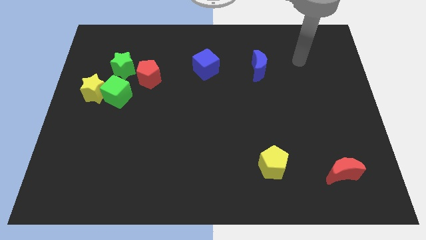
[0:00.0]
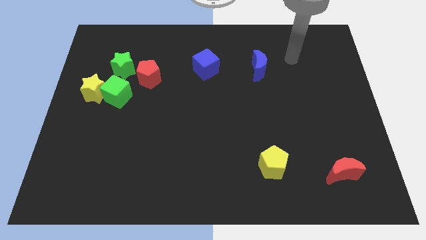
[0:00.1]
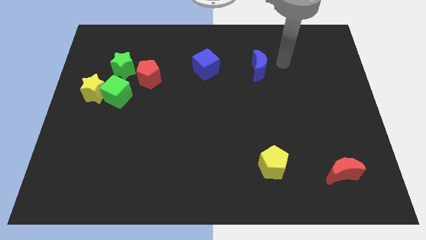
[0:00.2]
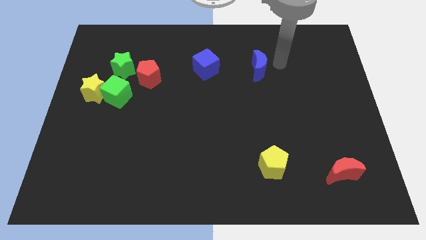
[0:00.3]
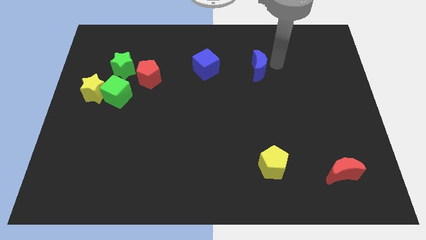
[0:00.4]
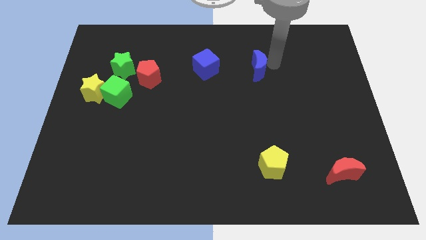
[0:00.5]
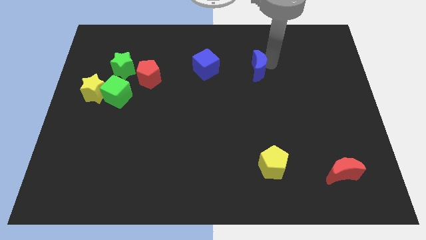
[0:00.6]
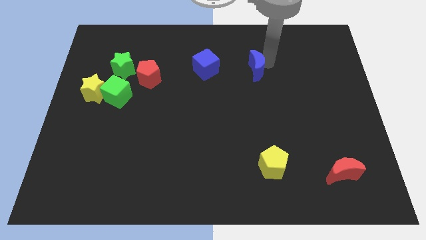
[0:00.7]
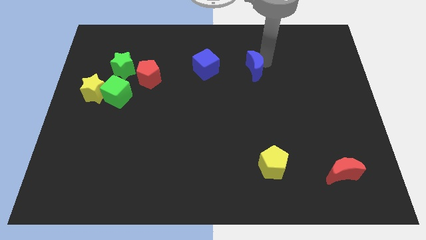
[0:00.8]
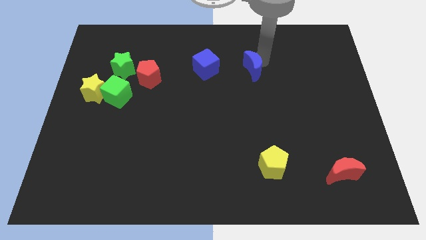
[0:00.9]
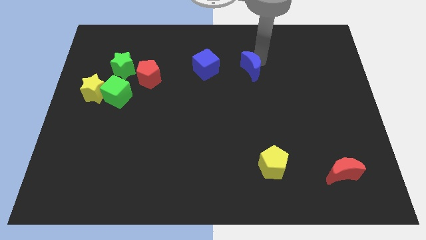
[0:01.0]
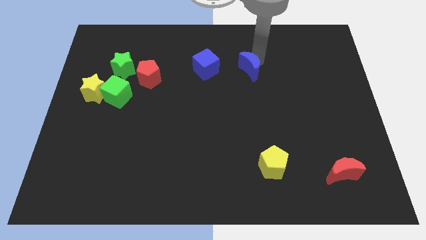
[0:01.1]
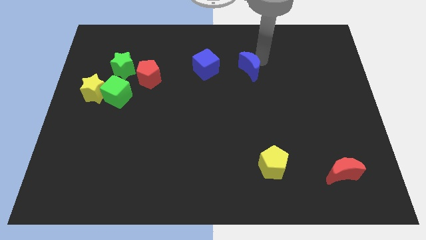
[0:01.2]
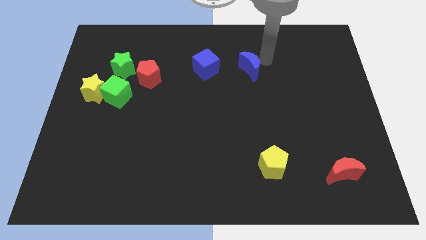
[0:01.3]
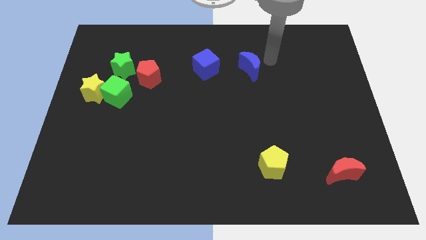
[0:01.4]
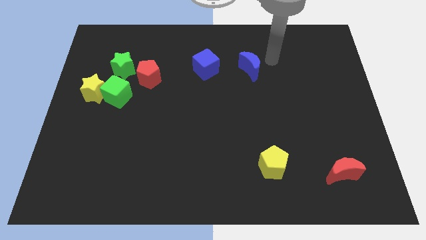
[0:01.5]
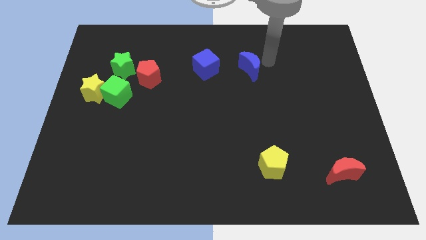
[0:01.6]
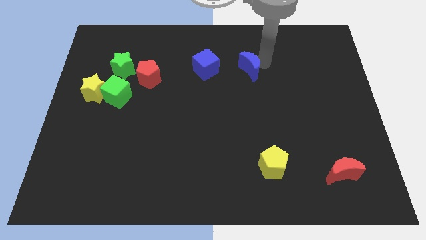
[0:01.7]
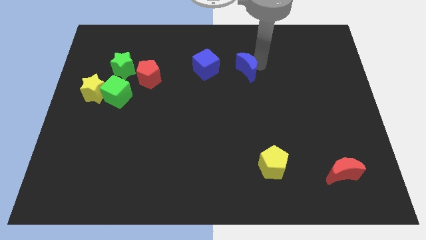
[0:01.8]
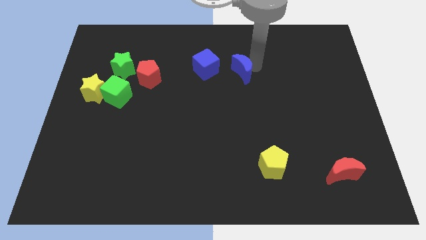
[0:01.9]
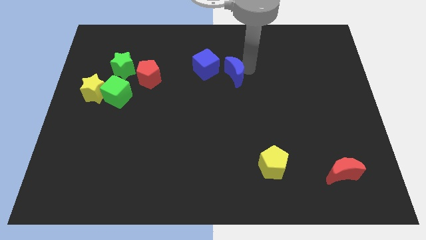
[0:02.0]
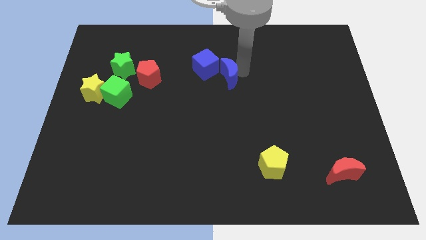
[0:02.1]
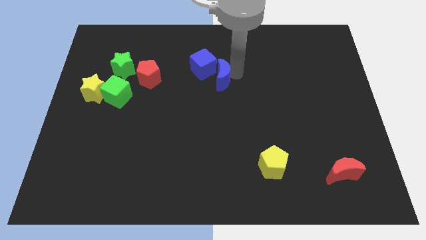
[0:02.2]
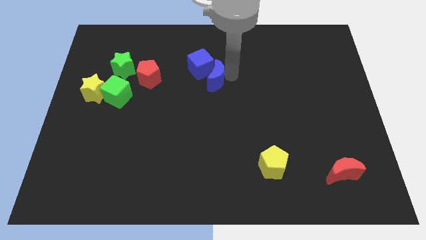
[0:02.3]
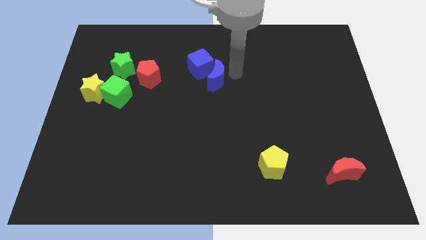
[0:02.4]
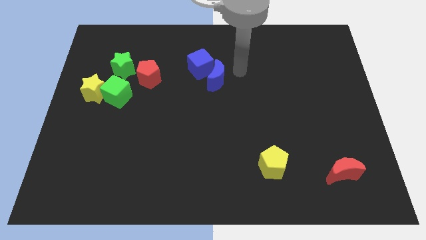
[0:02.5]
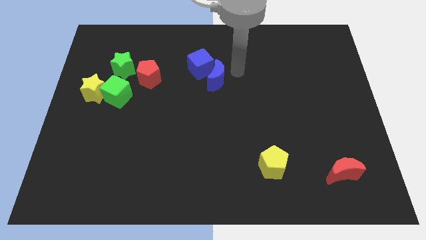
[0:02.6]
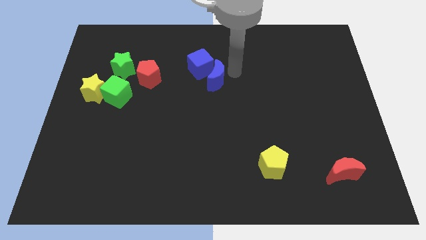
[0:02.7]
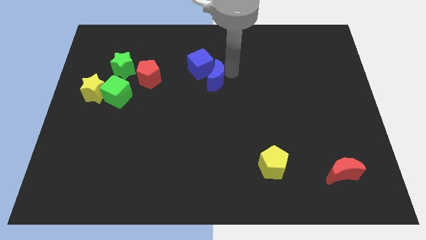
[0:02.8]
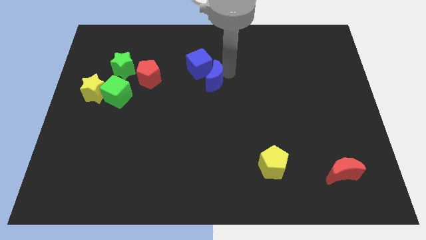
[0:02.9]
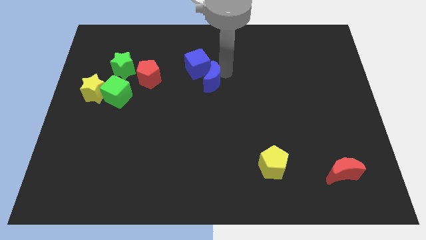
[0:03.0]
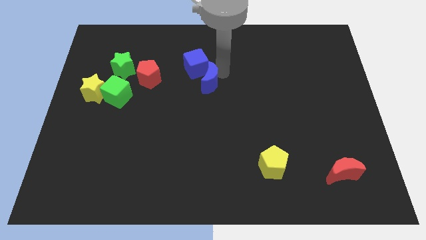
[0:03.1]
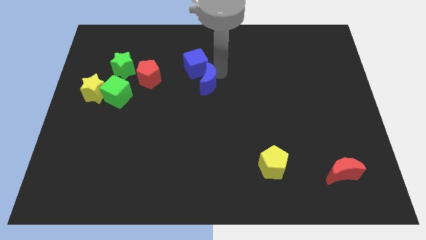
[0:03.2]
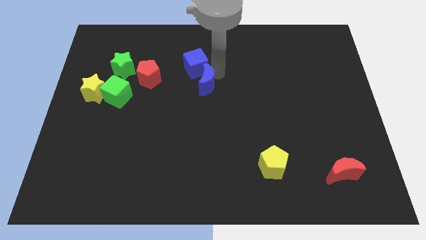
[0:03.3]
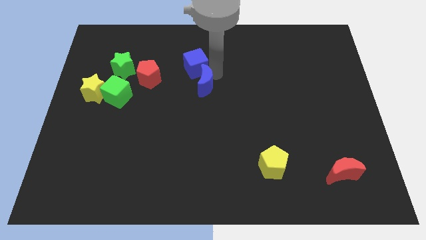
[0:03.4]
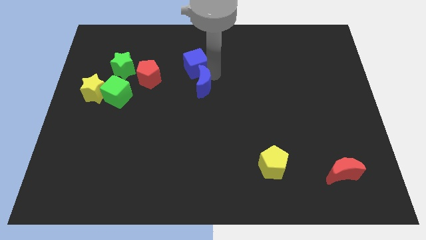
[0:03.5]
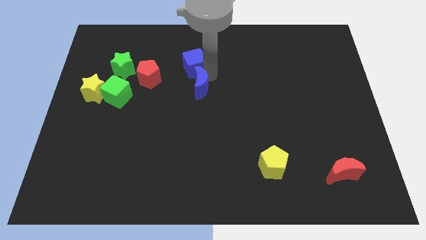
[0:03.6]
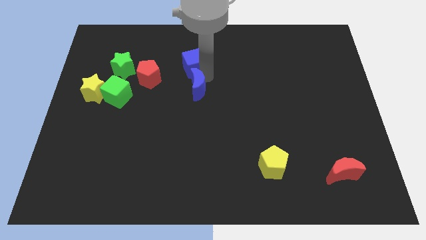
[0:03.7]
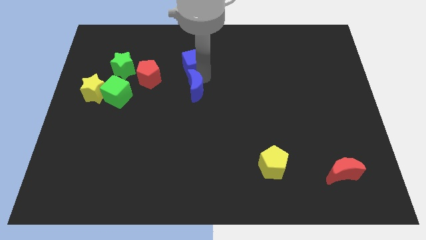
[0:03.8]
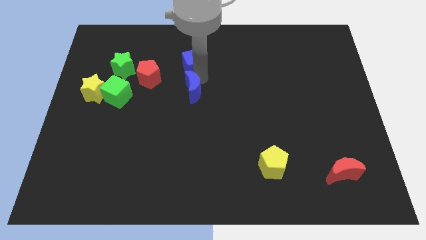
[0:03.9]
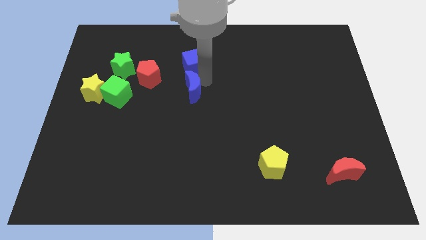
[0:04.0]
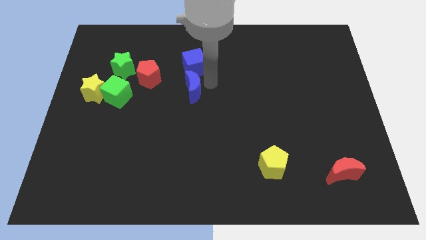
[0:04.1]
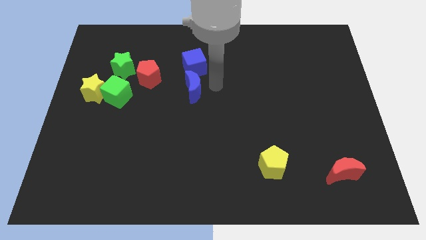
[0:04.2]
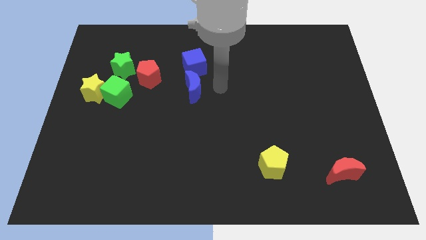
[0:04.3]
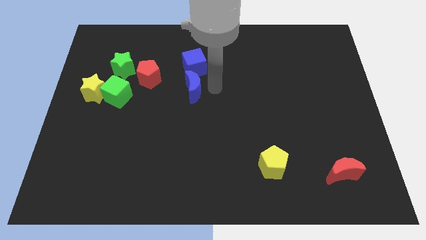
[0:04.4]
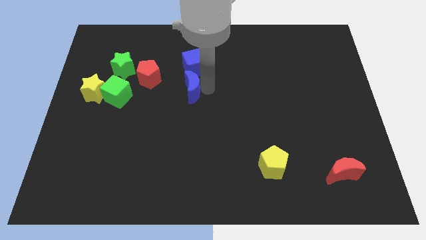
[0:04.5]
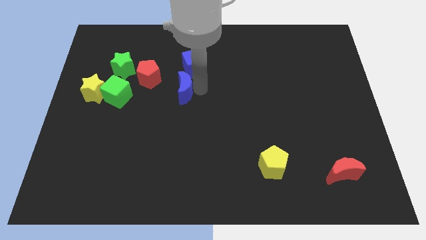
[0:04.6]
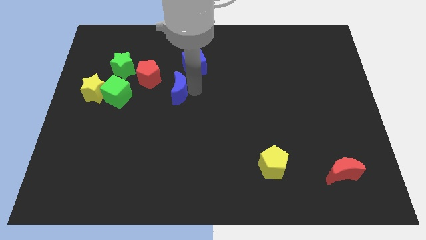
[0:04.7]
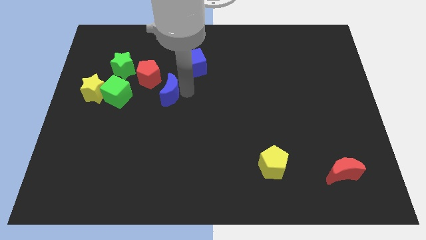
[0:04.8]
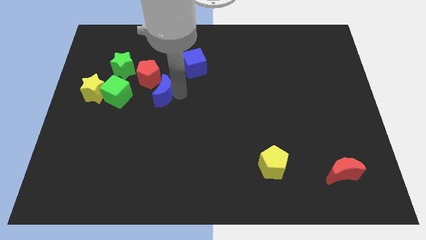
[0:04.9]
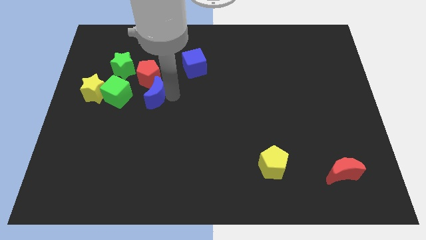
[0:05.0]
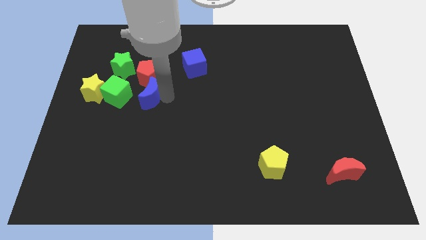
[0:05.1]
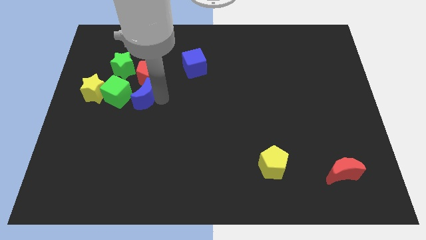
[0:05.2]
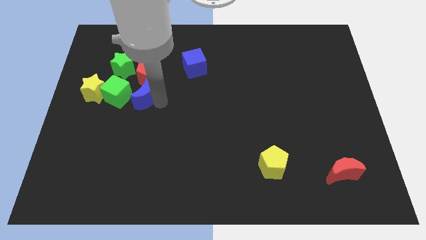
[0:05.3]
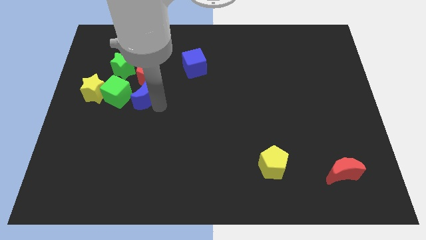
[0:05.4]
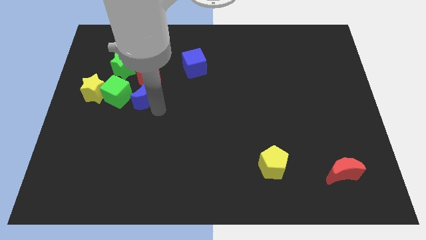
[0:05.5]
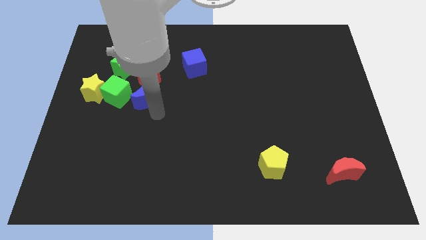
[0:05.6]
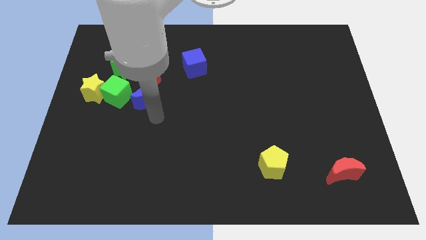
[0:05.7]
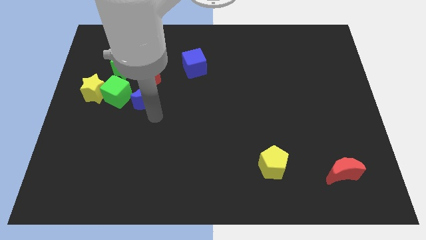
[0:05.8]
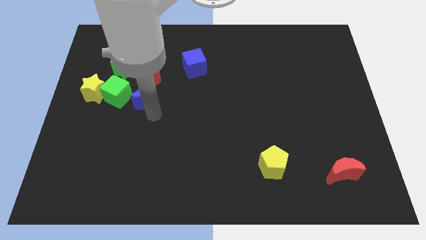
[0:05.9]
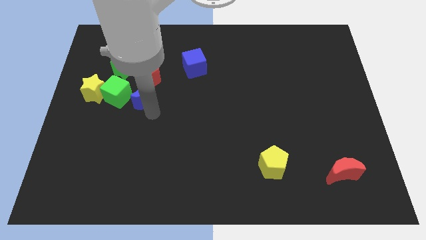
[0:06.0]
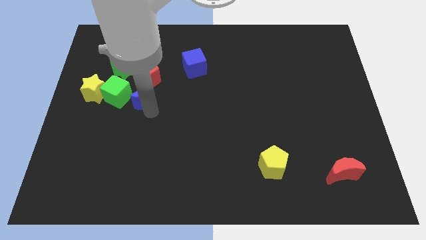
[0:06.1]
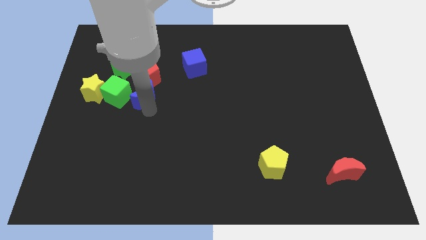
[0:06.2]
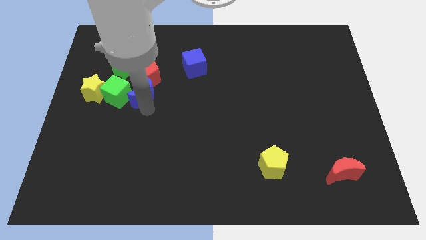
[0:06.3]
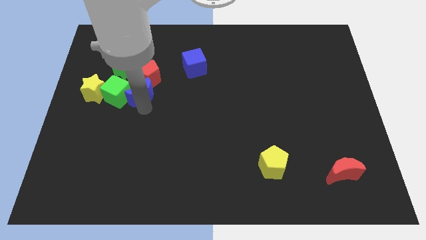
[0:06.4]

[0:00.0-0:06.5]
move the blue moon next to the green cube
